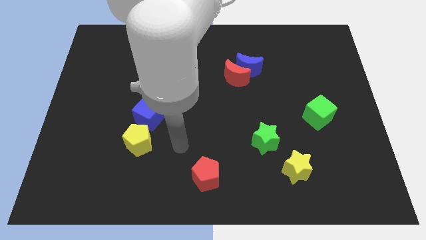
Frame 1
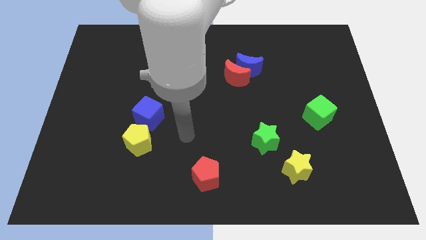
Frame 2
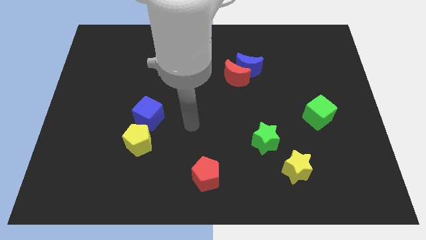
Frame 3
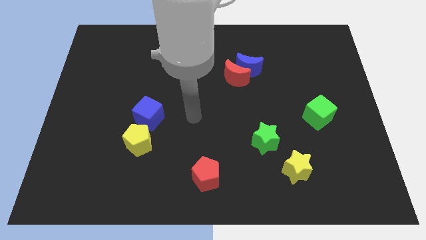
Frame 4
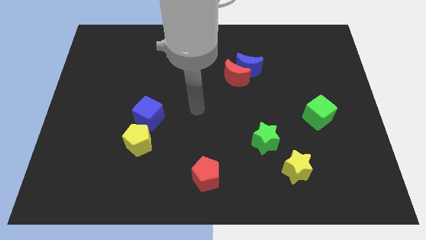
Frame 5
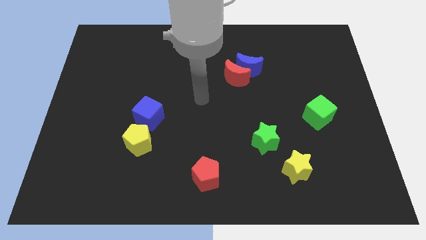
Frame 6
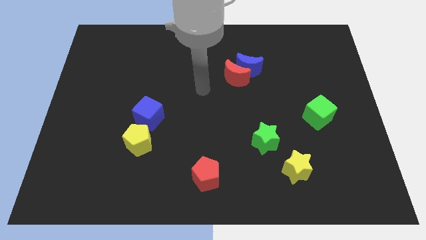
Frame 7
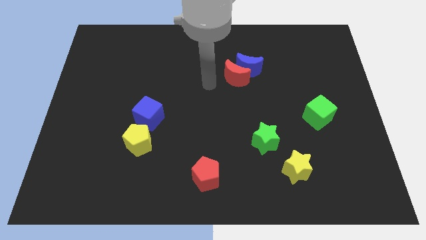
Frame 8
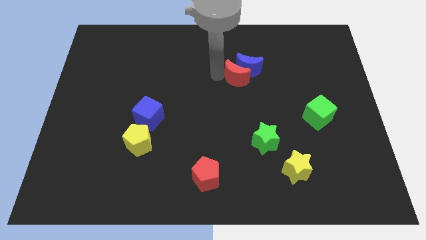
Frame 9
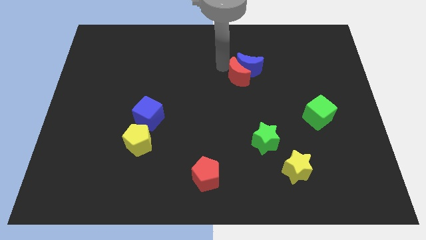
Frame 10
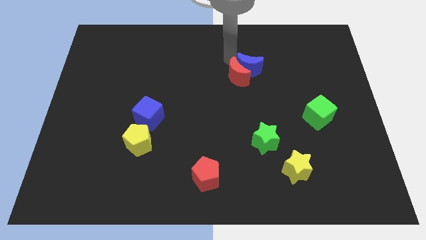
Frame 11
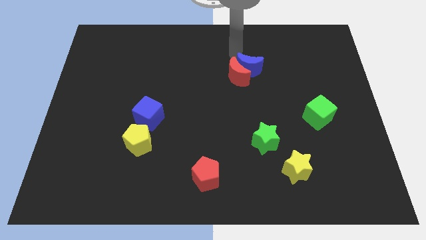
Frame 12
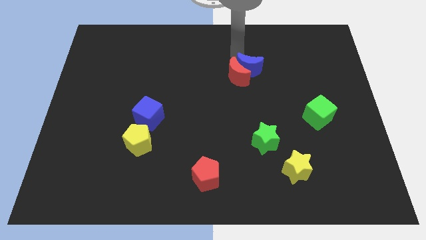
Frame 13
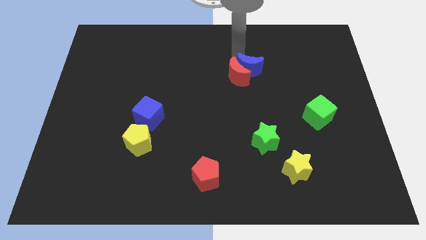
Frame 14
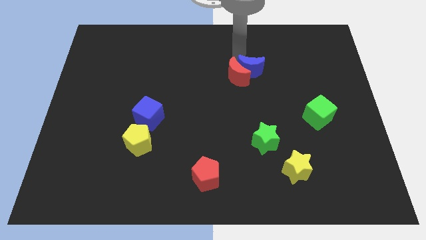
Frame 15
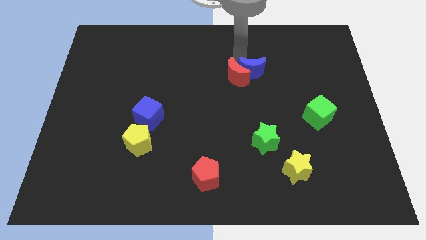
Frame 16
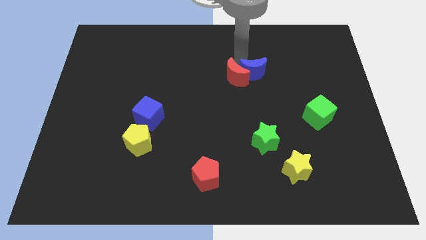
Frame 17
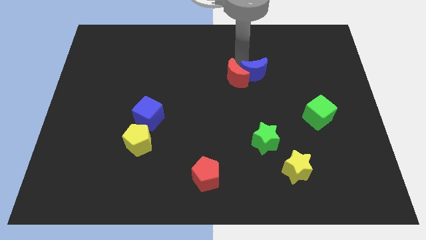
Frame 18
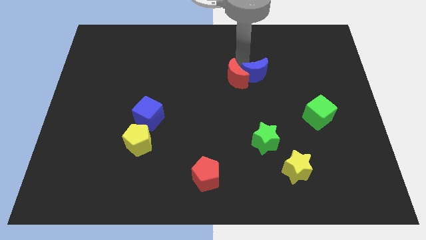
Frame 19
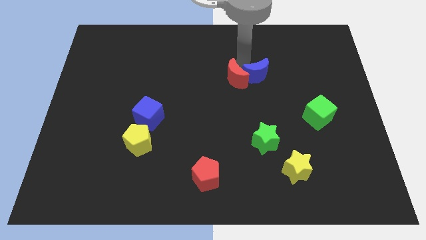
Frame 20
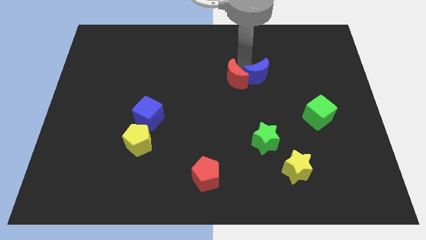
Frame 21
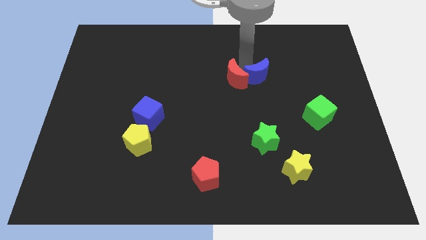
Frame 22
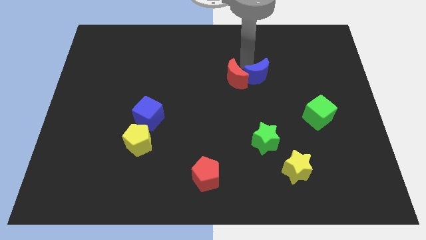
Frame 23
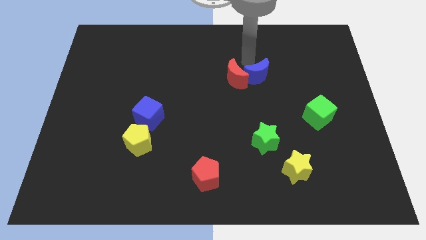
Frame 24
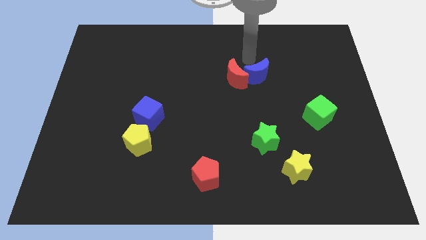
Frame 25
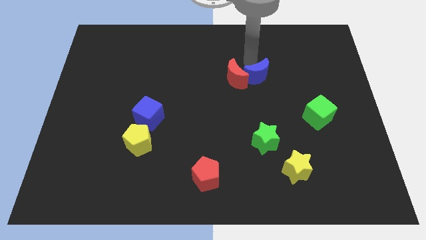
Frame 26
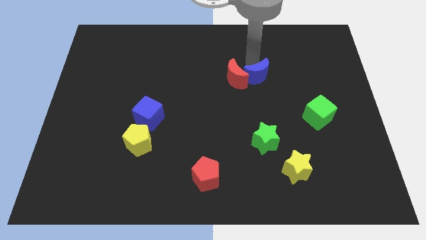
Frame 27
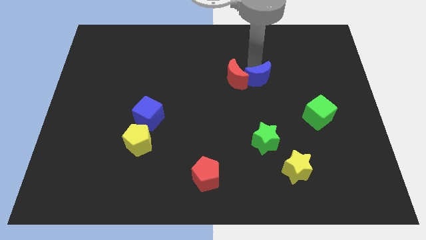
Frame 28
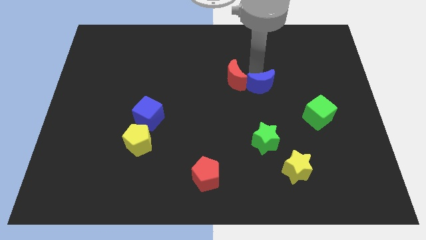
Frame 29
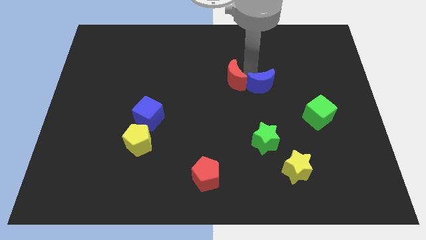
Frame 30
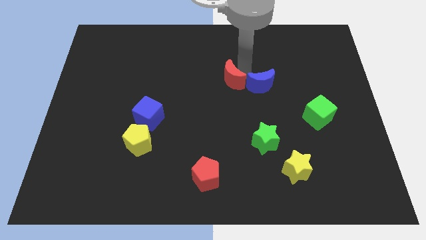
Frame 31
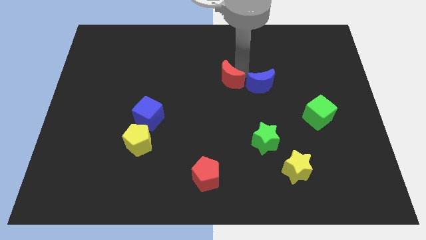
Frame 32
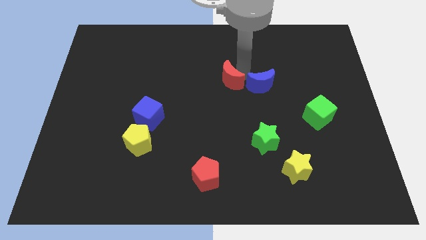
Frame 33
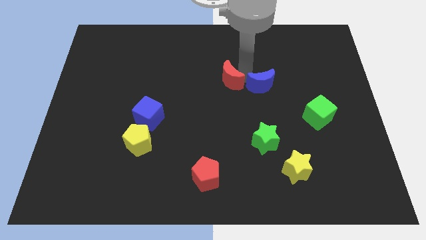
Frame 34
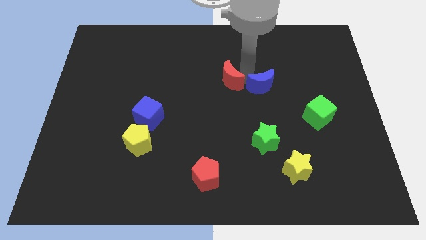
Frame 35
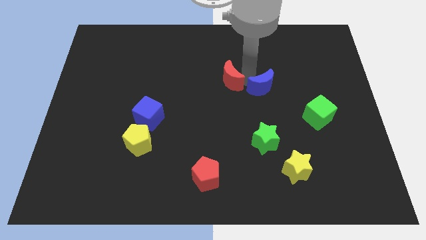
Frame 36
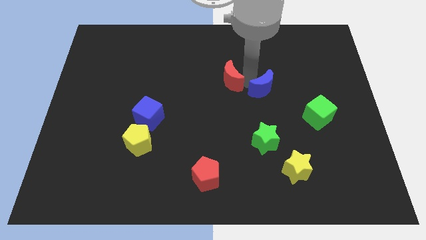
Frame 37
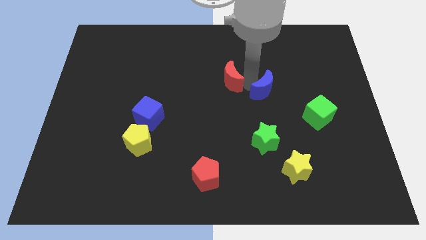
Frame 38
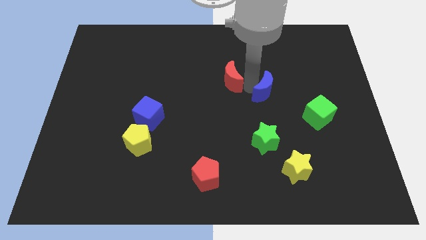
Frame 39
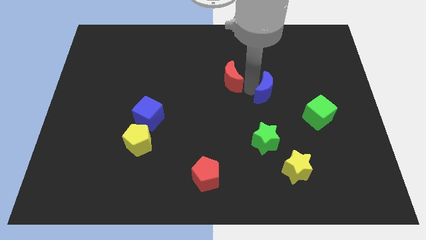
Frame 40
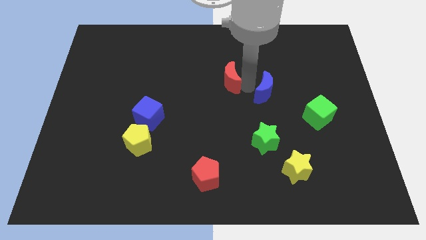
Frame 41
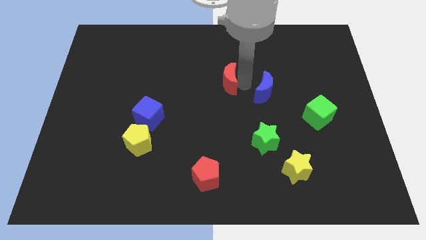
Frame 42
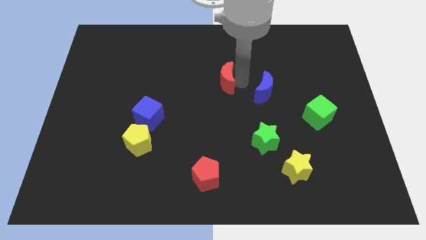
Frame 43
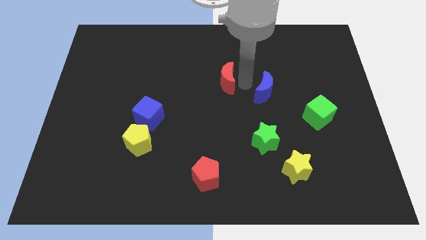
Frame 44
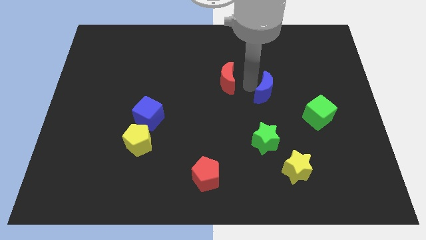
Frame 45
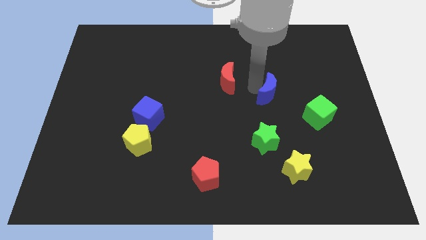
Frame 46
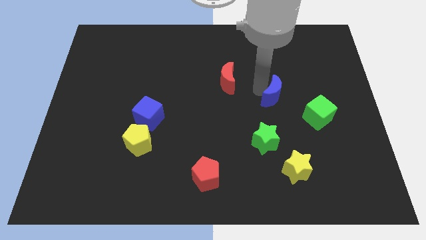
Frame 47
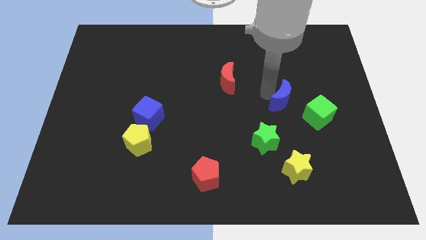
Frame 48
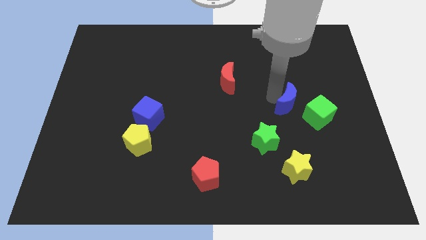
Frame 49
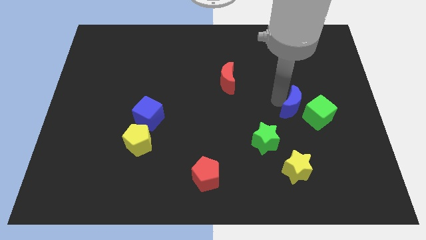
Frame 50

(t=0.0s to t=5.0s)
put the blue moon towards the green cube

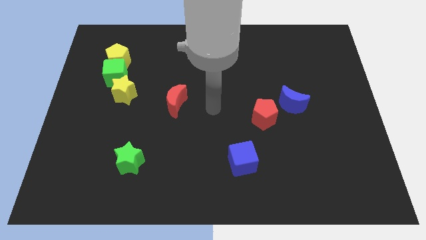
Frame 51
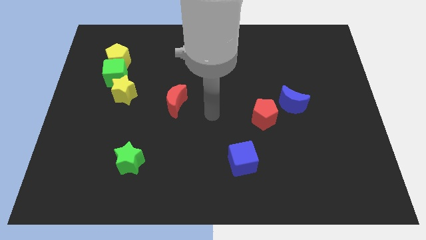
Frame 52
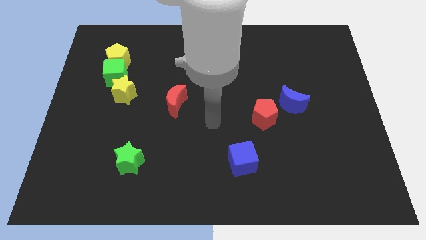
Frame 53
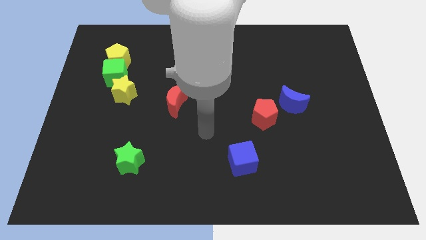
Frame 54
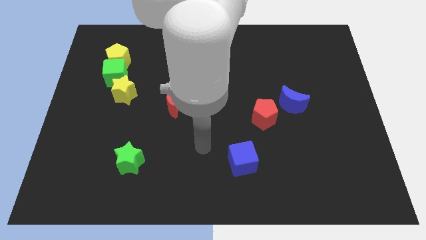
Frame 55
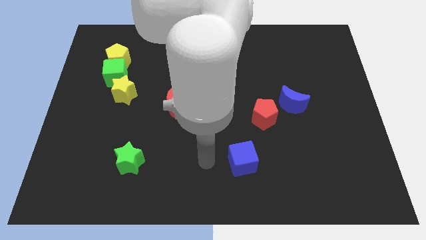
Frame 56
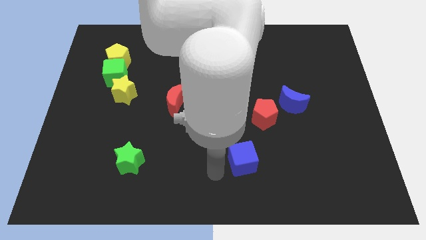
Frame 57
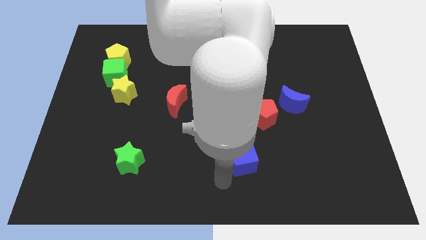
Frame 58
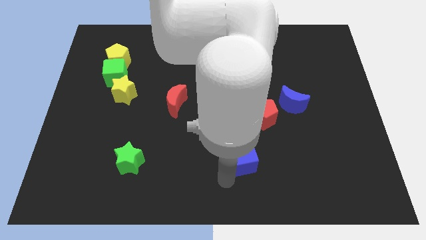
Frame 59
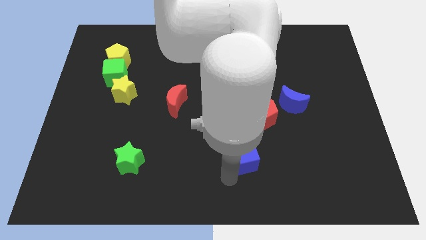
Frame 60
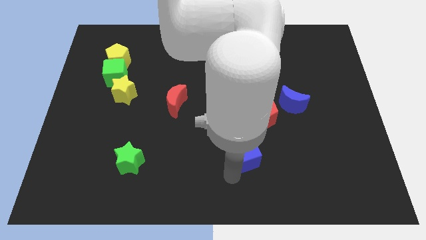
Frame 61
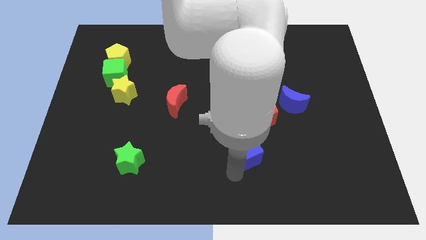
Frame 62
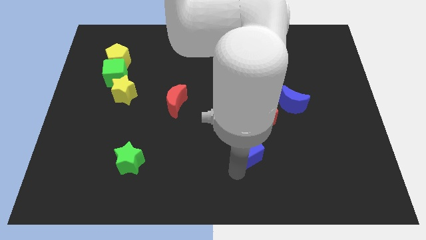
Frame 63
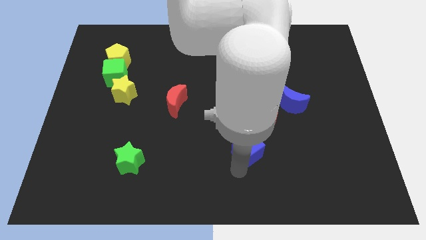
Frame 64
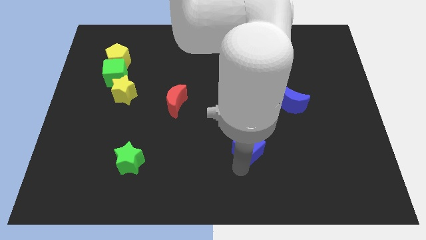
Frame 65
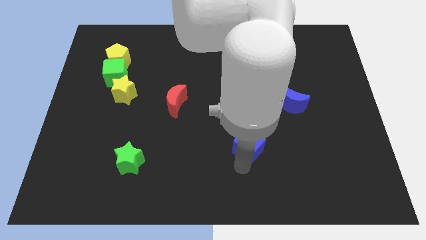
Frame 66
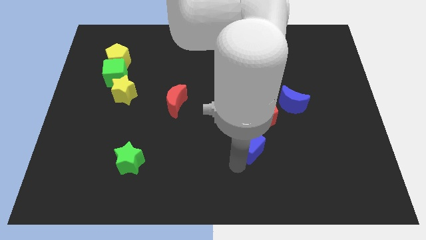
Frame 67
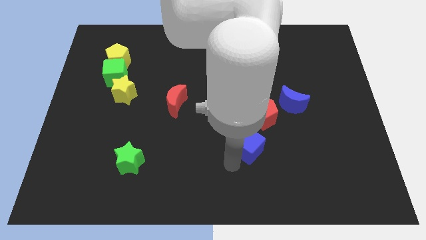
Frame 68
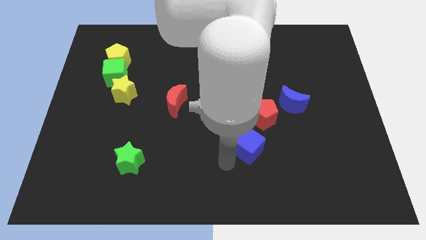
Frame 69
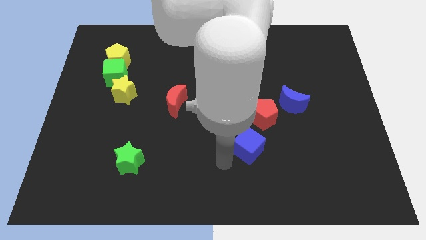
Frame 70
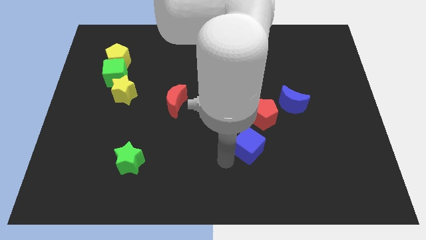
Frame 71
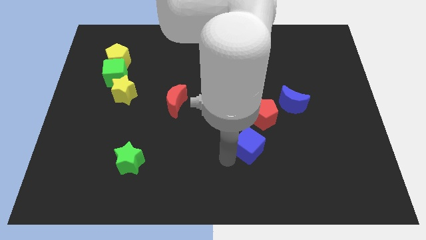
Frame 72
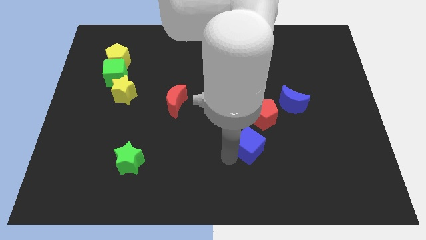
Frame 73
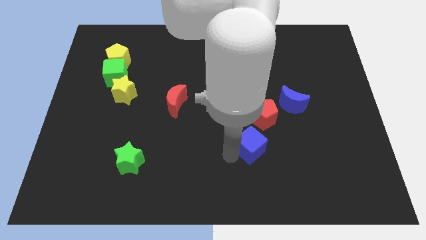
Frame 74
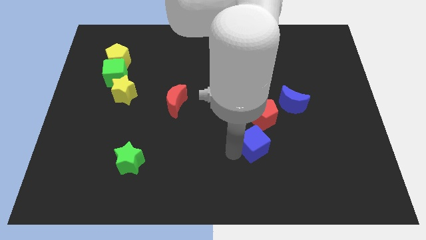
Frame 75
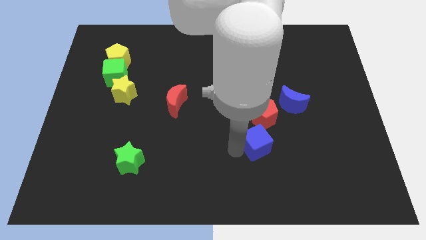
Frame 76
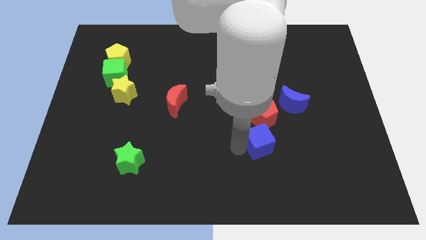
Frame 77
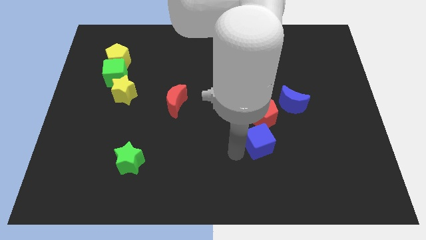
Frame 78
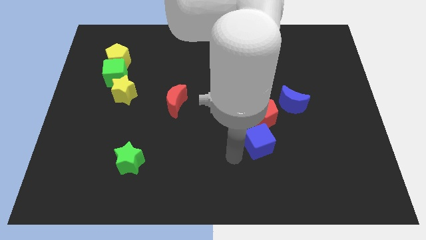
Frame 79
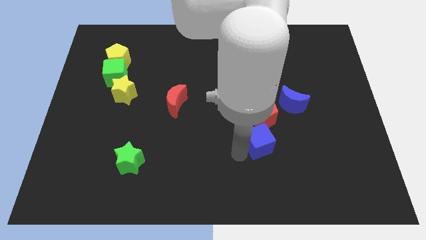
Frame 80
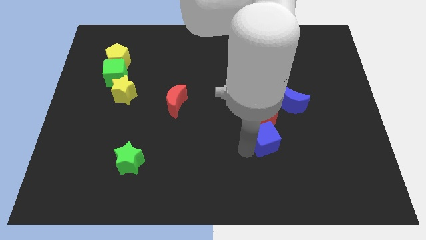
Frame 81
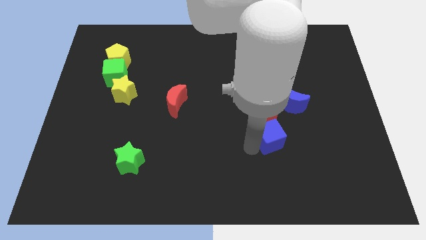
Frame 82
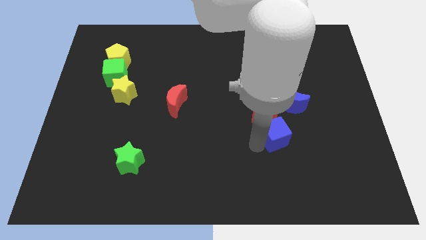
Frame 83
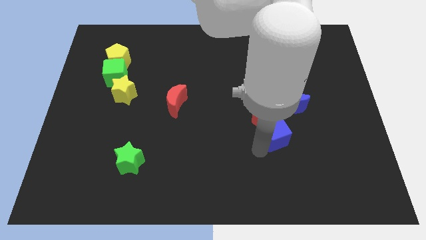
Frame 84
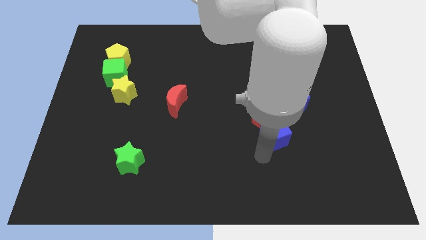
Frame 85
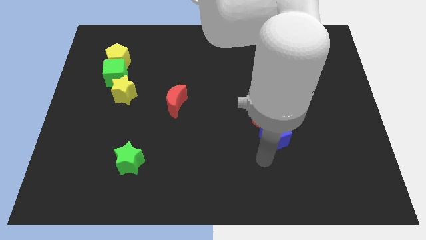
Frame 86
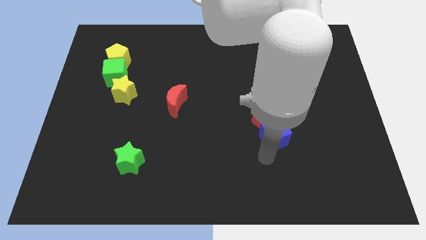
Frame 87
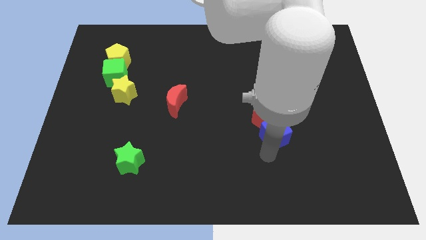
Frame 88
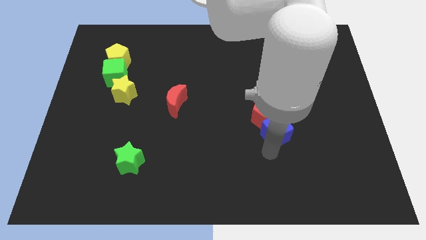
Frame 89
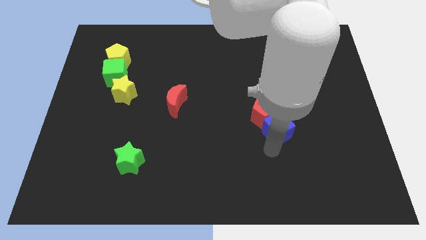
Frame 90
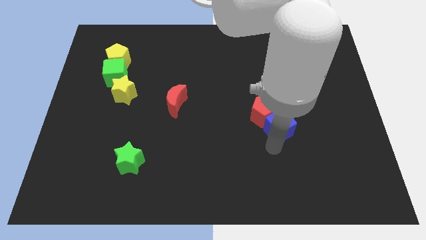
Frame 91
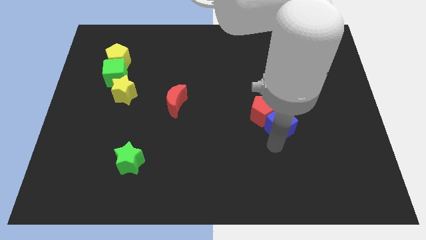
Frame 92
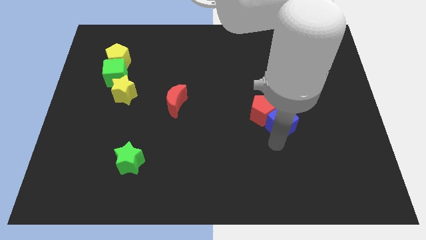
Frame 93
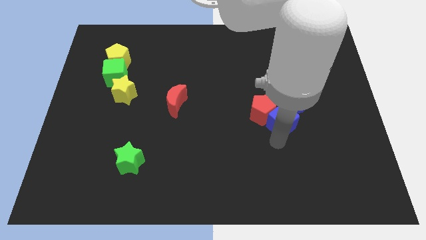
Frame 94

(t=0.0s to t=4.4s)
move the blue cube towards the blue moon
